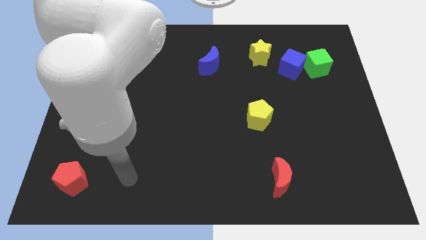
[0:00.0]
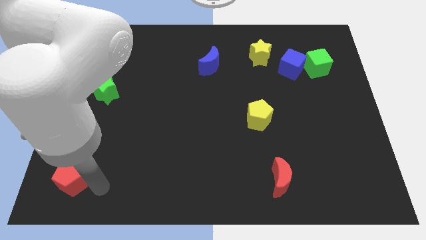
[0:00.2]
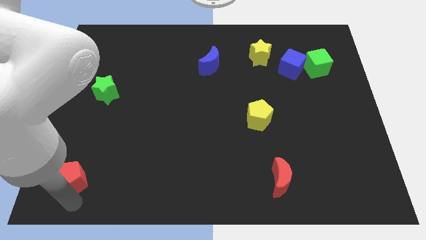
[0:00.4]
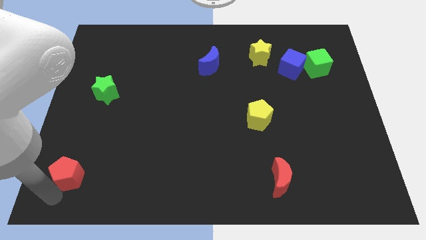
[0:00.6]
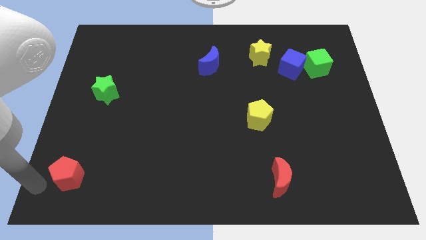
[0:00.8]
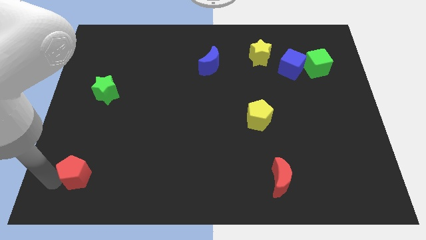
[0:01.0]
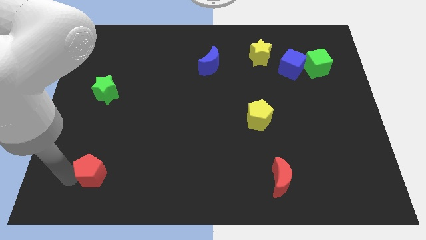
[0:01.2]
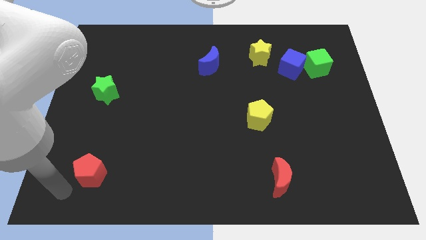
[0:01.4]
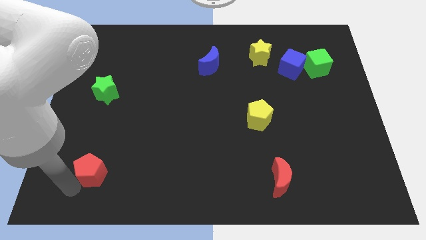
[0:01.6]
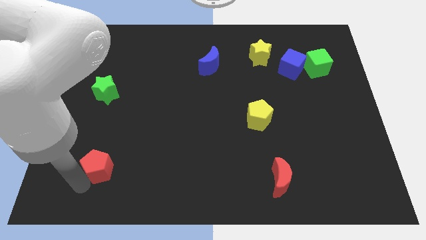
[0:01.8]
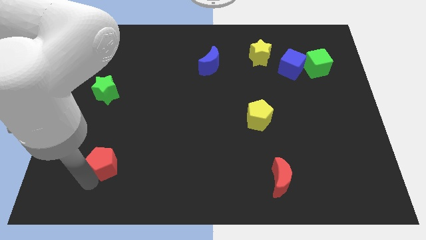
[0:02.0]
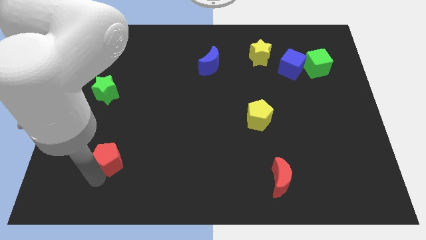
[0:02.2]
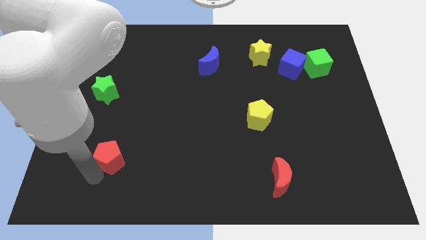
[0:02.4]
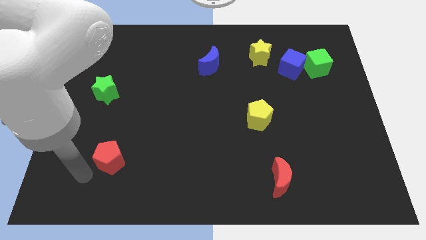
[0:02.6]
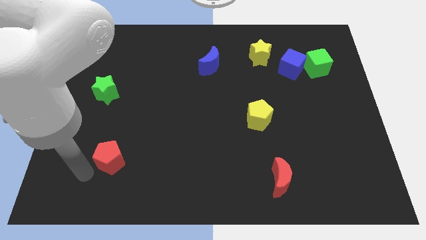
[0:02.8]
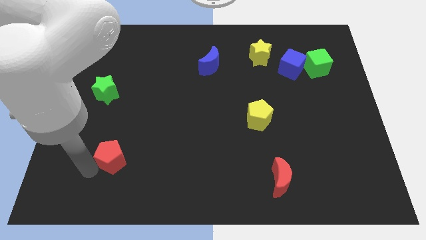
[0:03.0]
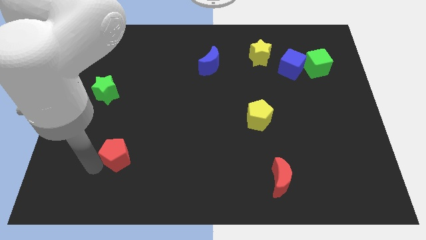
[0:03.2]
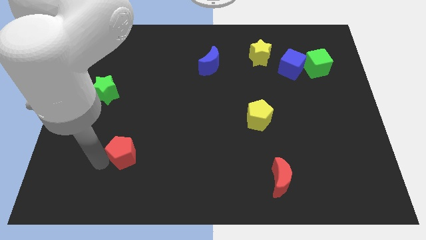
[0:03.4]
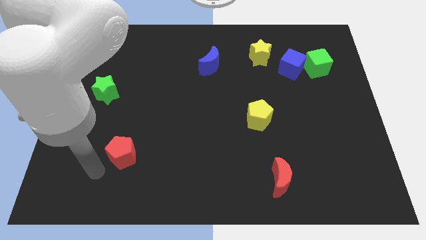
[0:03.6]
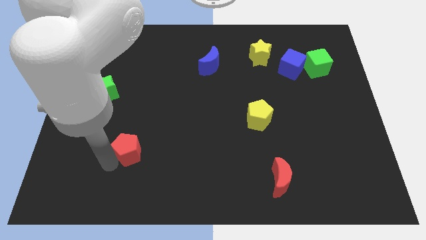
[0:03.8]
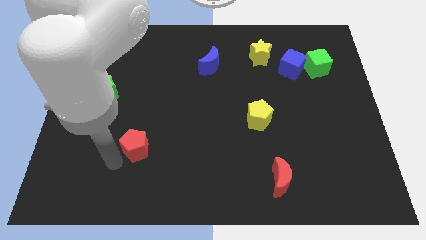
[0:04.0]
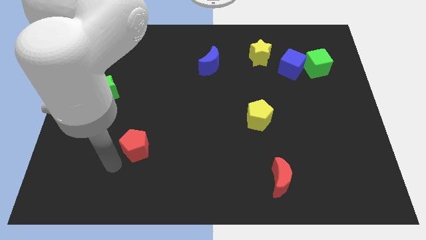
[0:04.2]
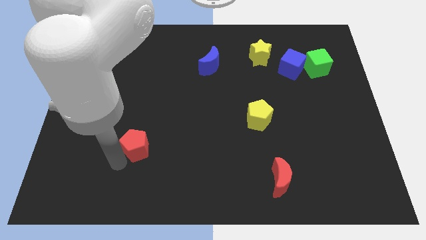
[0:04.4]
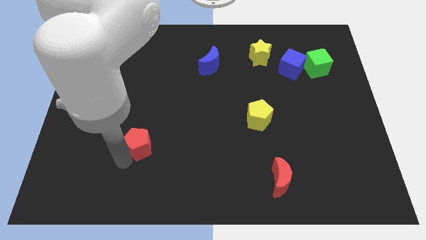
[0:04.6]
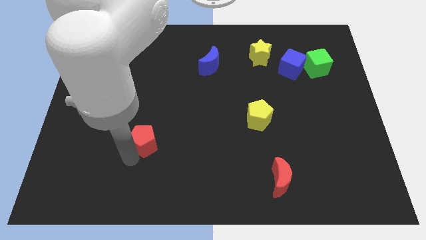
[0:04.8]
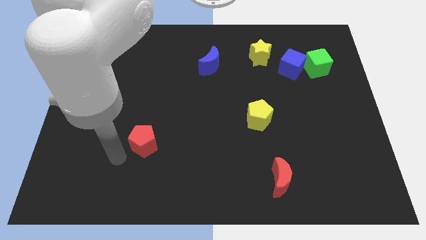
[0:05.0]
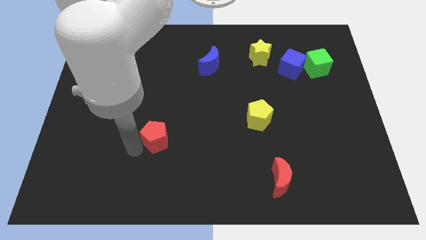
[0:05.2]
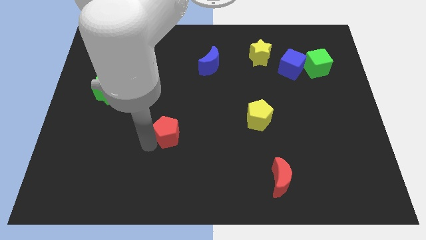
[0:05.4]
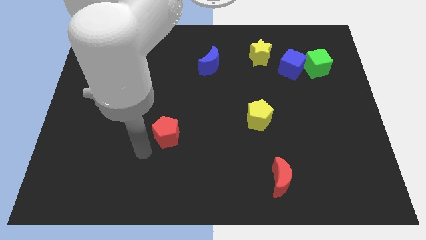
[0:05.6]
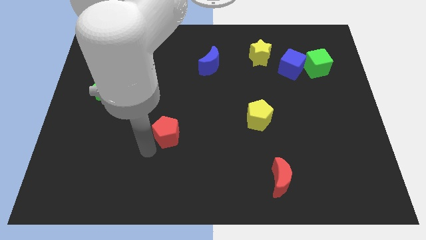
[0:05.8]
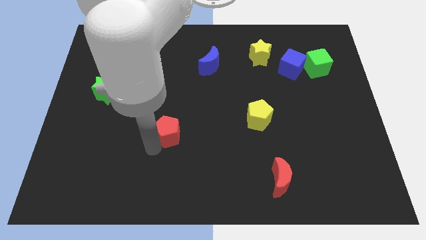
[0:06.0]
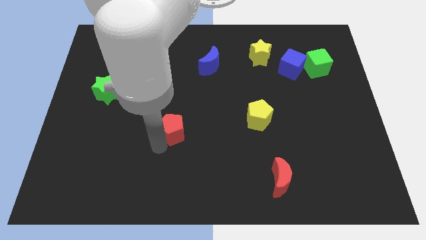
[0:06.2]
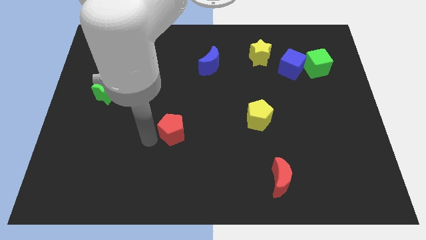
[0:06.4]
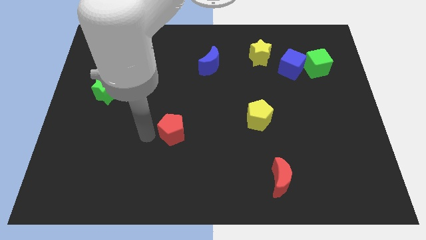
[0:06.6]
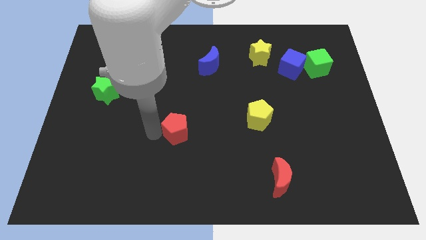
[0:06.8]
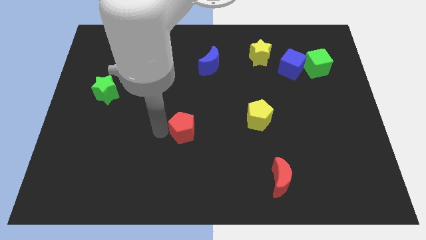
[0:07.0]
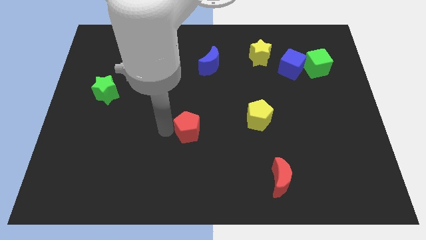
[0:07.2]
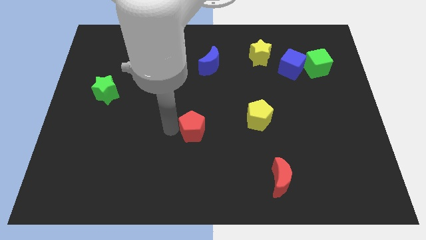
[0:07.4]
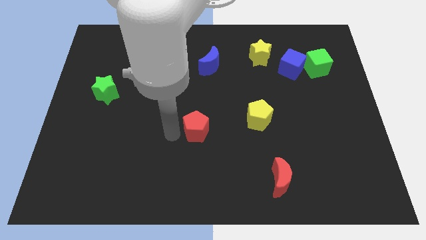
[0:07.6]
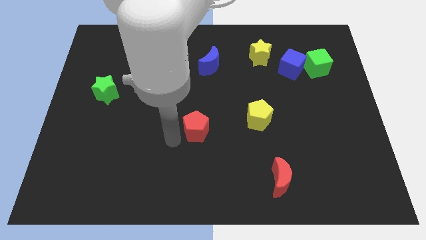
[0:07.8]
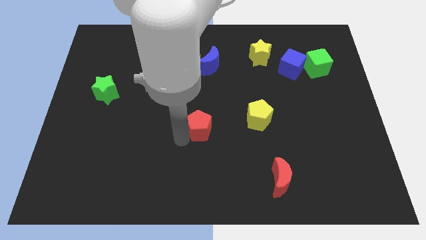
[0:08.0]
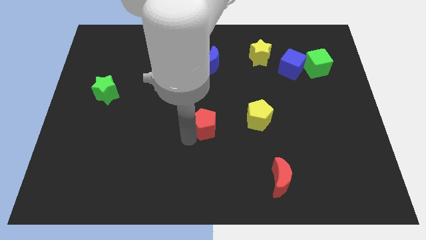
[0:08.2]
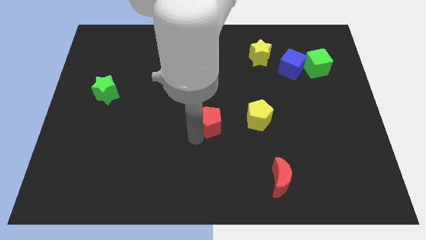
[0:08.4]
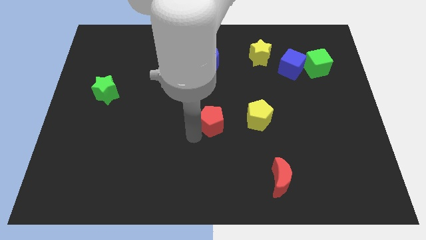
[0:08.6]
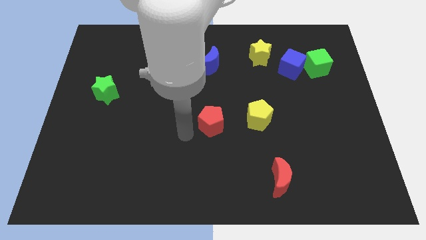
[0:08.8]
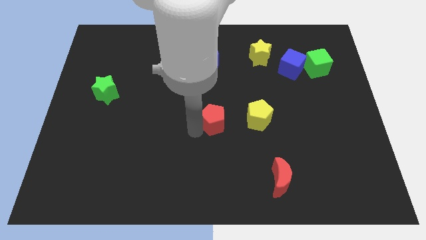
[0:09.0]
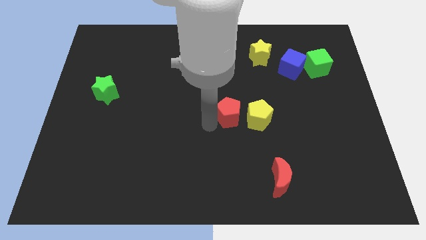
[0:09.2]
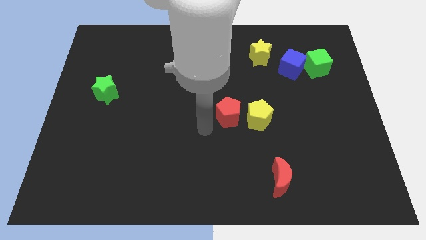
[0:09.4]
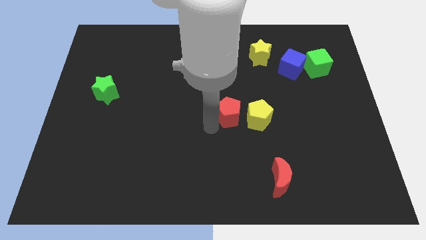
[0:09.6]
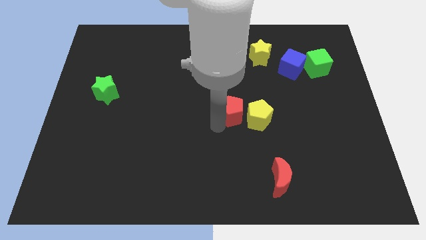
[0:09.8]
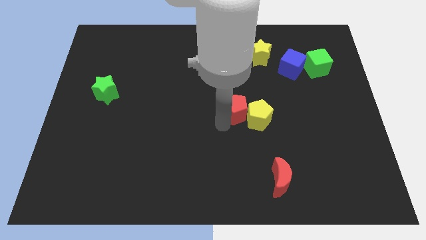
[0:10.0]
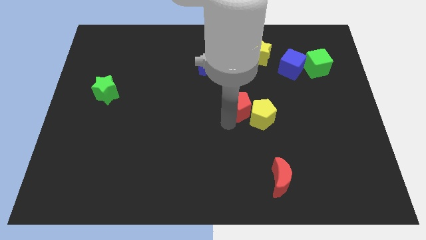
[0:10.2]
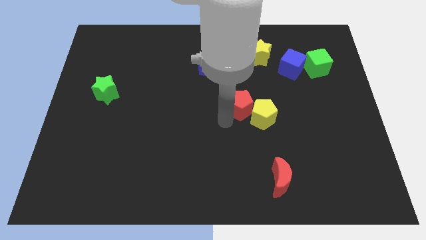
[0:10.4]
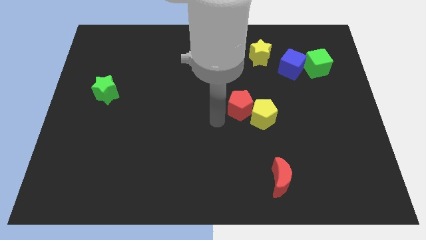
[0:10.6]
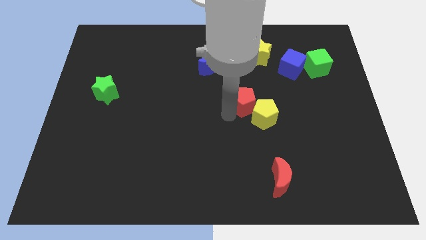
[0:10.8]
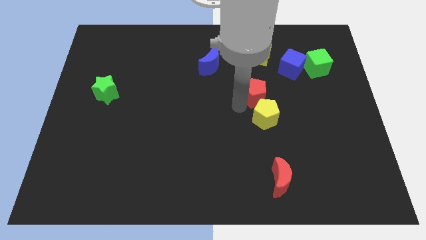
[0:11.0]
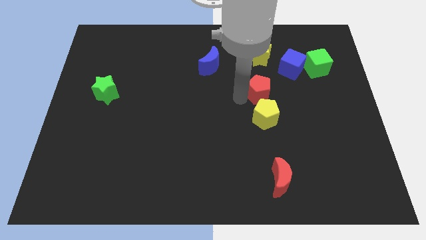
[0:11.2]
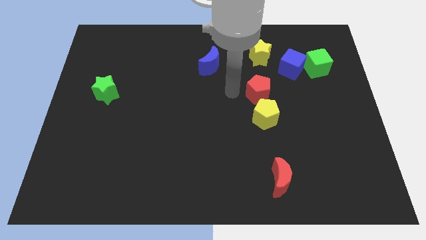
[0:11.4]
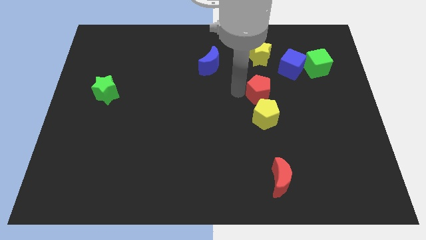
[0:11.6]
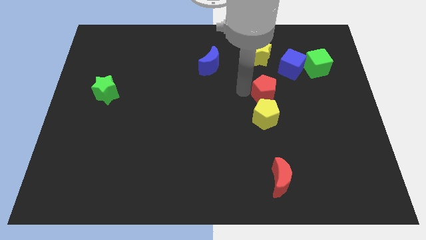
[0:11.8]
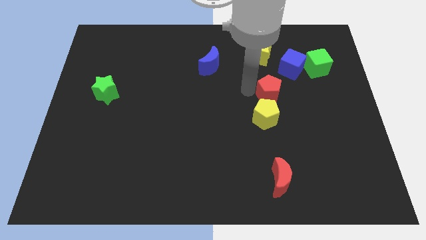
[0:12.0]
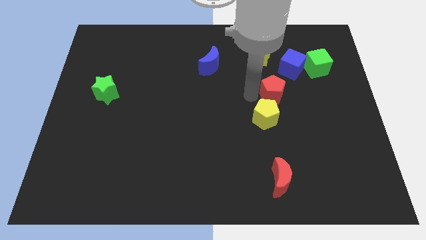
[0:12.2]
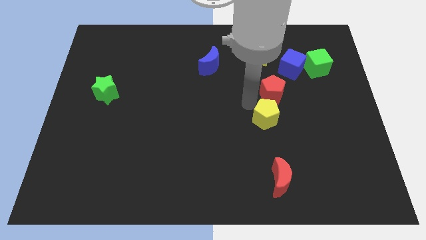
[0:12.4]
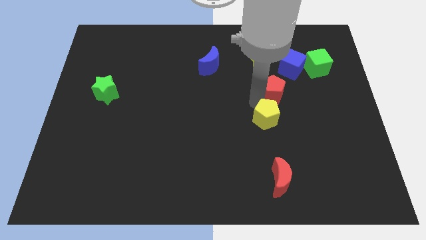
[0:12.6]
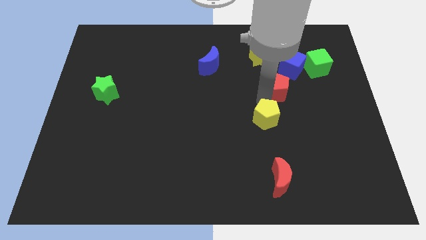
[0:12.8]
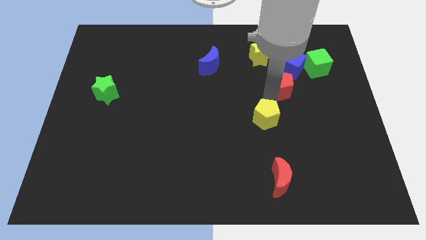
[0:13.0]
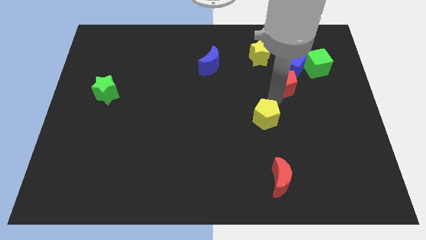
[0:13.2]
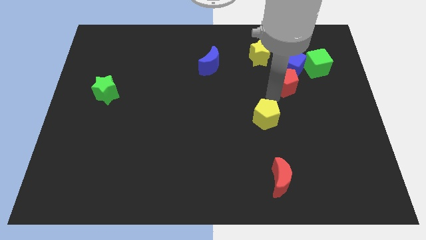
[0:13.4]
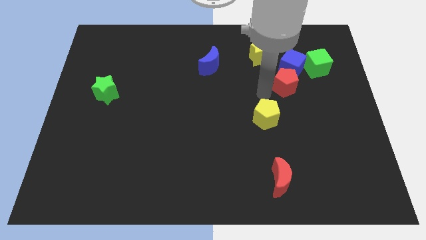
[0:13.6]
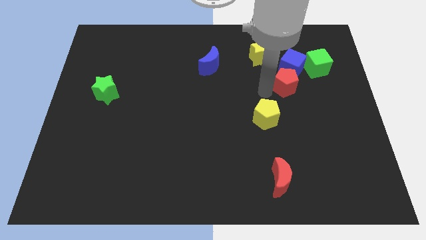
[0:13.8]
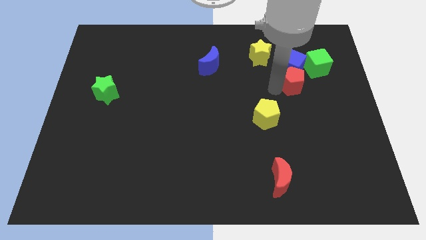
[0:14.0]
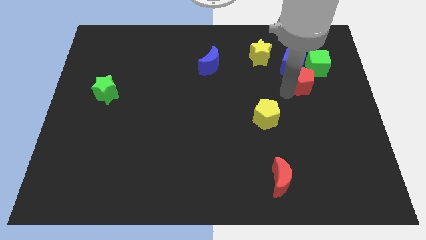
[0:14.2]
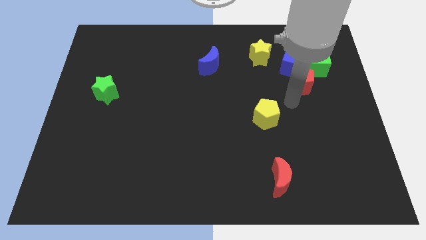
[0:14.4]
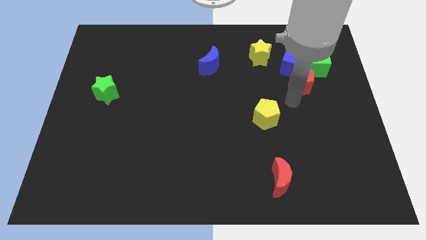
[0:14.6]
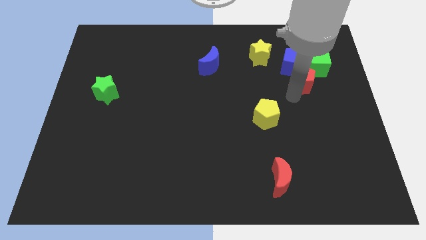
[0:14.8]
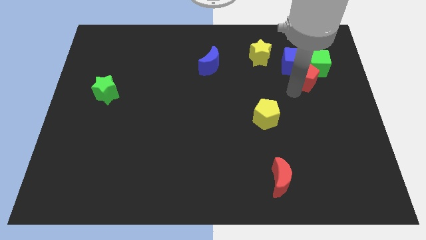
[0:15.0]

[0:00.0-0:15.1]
push the red pentagon next to the green cube
